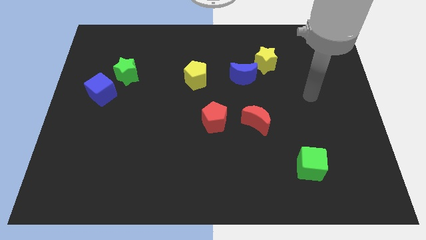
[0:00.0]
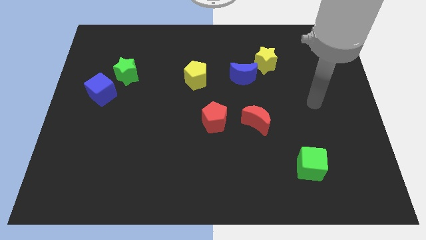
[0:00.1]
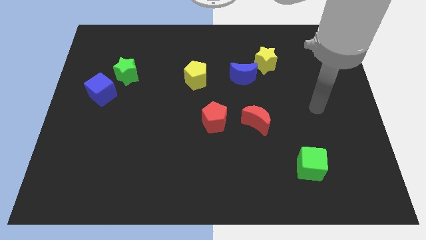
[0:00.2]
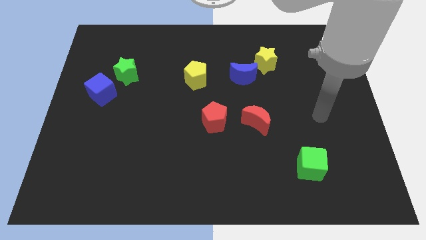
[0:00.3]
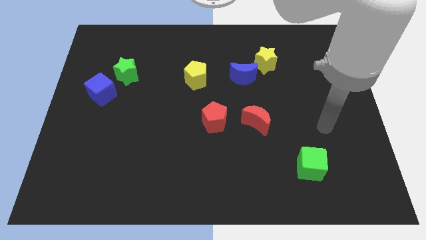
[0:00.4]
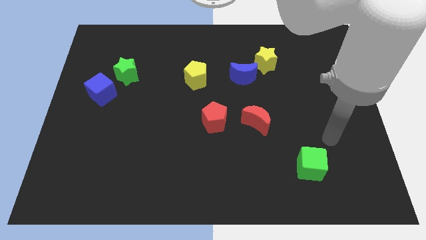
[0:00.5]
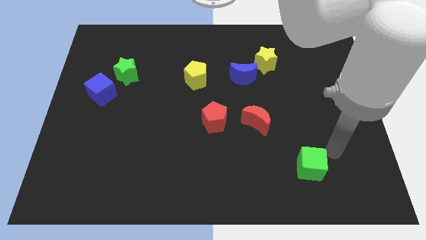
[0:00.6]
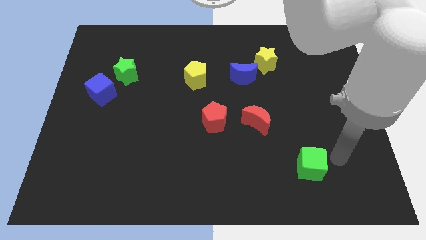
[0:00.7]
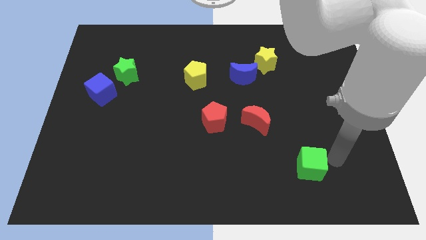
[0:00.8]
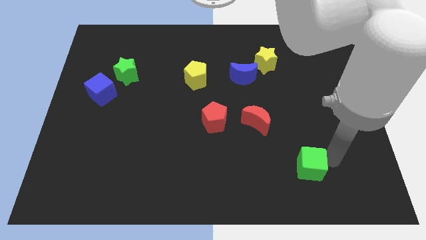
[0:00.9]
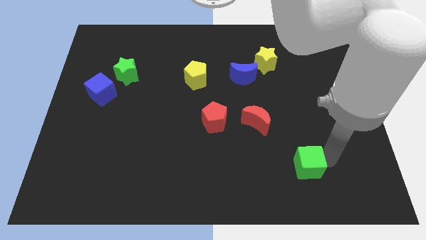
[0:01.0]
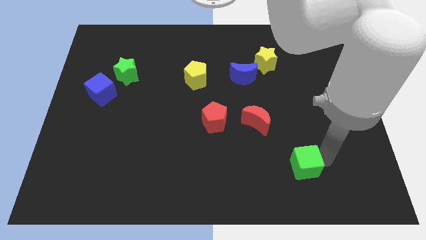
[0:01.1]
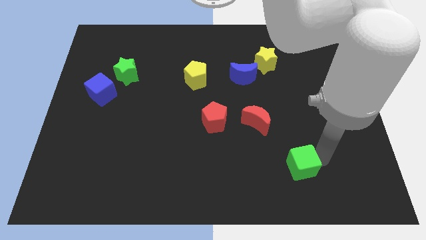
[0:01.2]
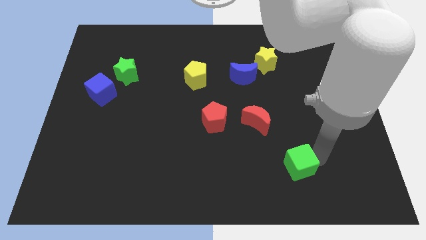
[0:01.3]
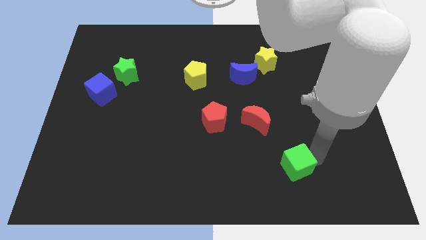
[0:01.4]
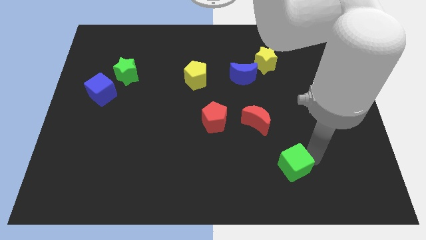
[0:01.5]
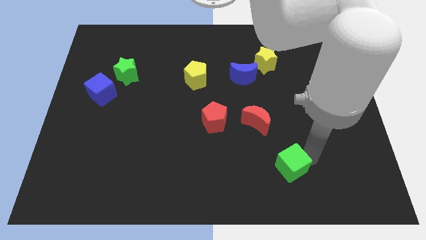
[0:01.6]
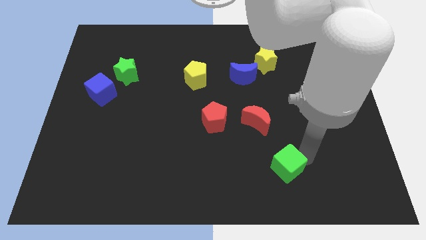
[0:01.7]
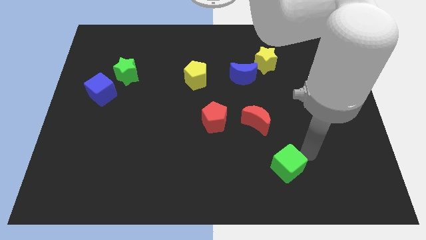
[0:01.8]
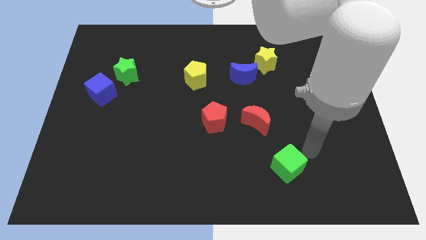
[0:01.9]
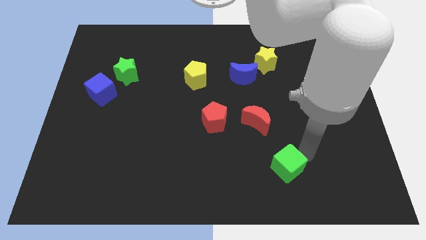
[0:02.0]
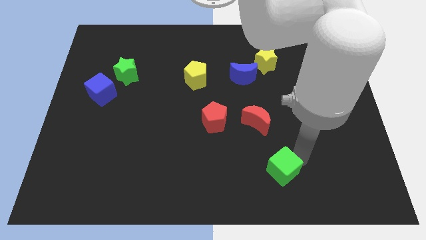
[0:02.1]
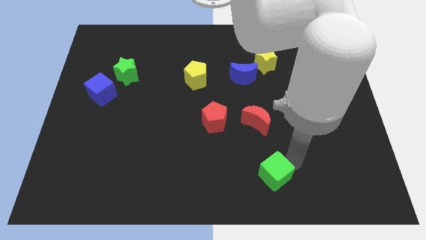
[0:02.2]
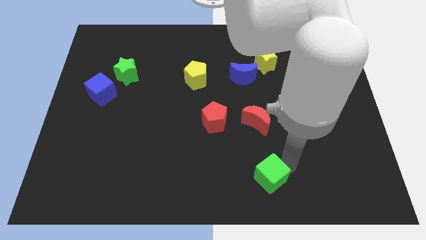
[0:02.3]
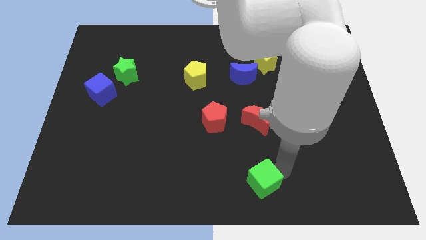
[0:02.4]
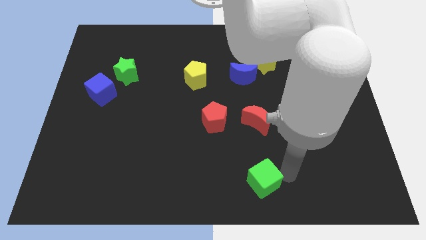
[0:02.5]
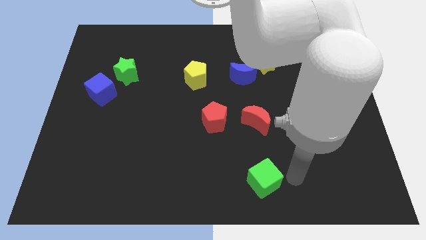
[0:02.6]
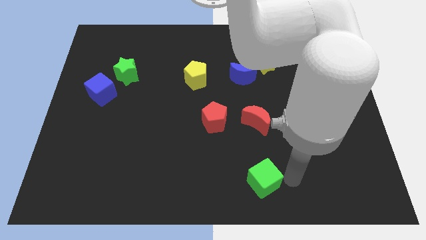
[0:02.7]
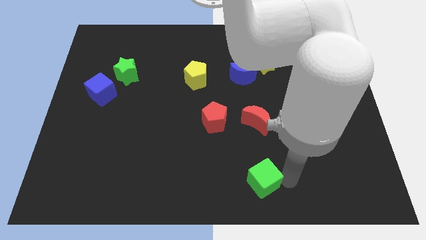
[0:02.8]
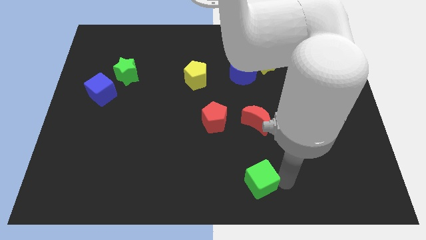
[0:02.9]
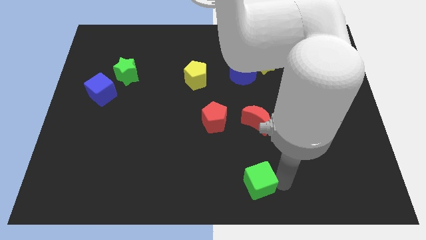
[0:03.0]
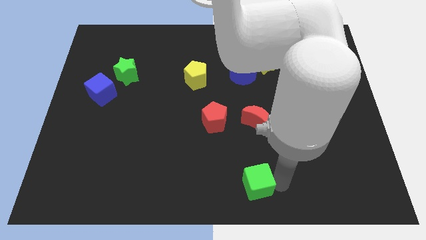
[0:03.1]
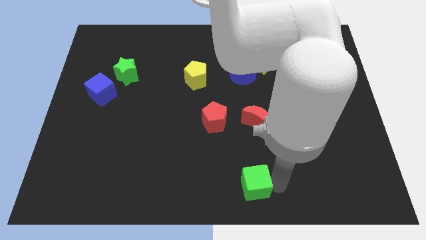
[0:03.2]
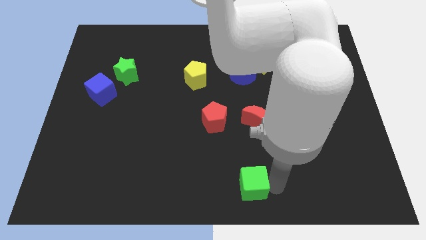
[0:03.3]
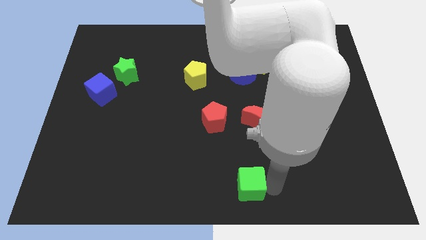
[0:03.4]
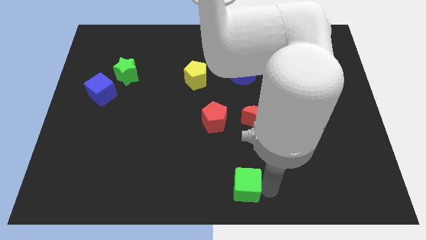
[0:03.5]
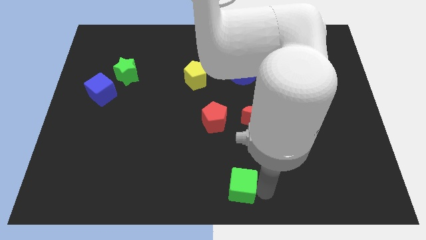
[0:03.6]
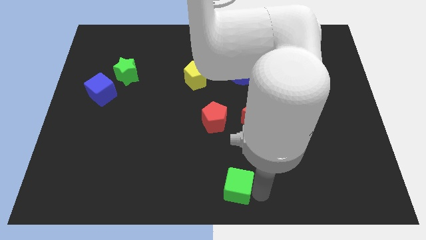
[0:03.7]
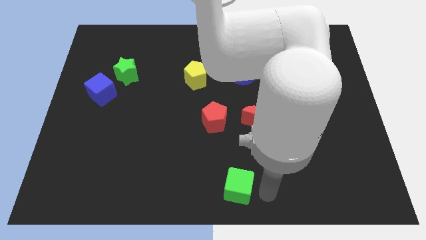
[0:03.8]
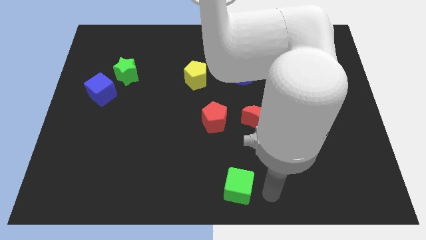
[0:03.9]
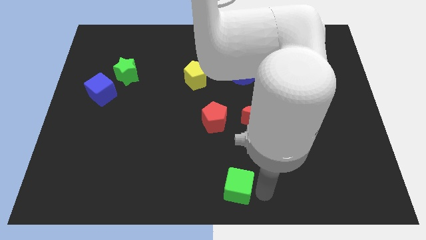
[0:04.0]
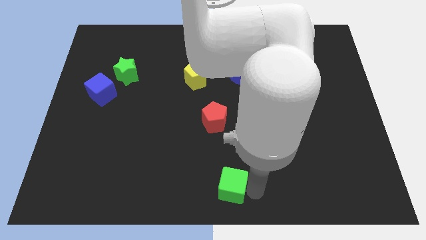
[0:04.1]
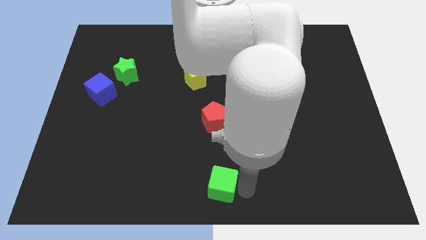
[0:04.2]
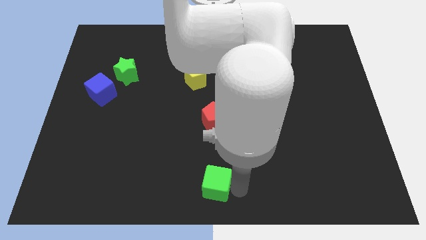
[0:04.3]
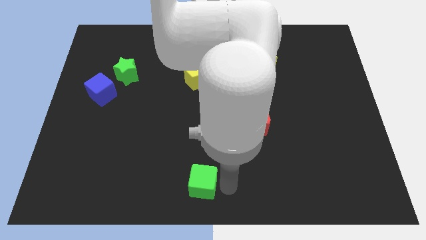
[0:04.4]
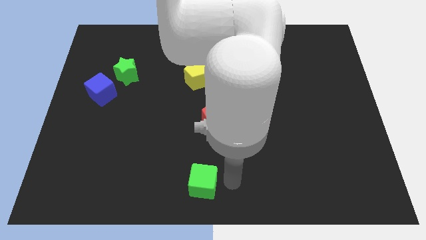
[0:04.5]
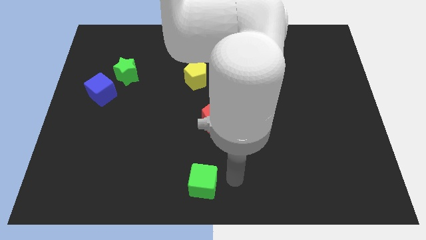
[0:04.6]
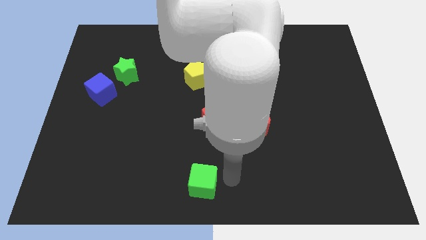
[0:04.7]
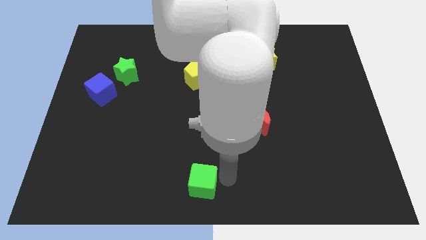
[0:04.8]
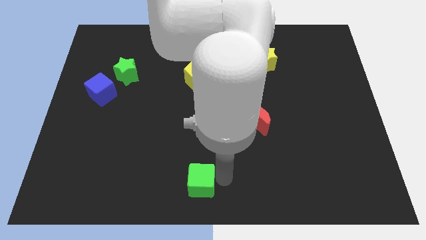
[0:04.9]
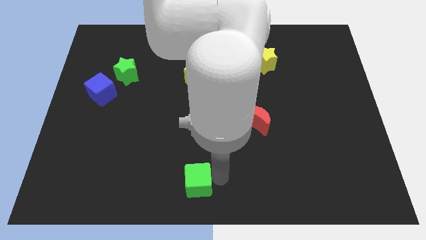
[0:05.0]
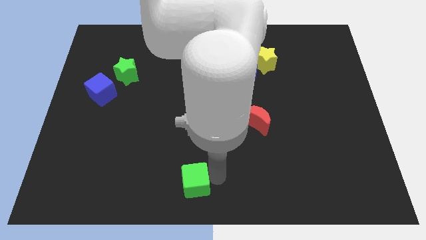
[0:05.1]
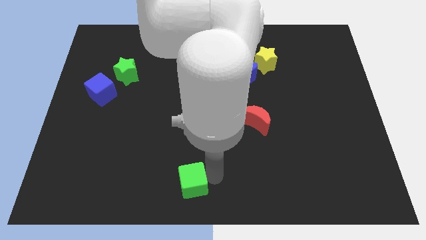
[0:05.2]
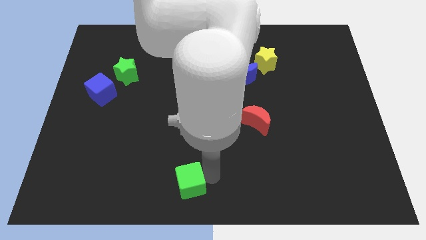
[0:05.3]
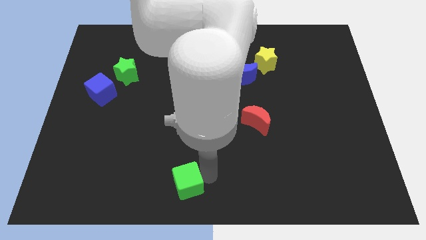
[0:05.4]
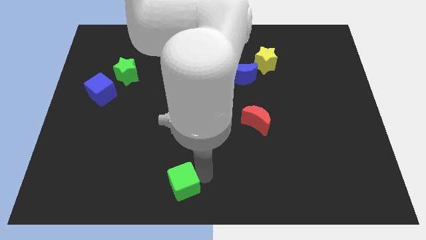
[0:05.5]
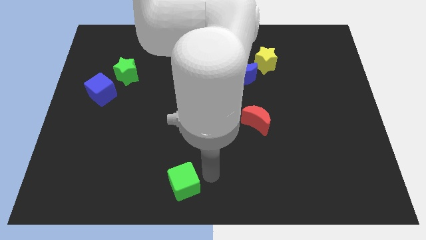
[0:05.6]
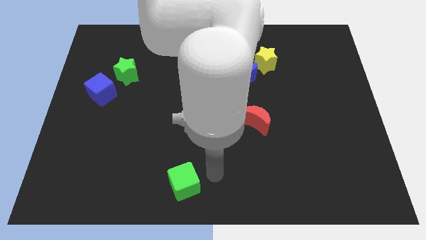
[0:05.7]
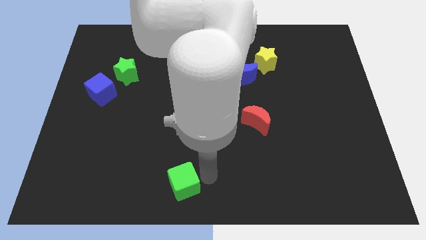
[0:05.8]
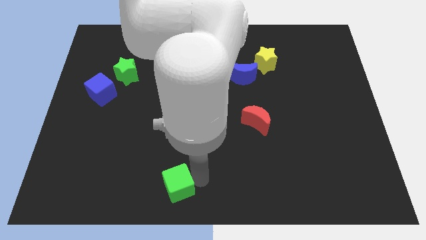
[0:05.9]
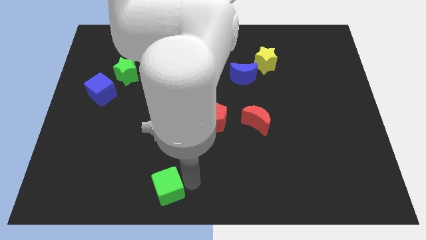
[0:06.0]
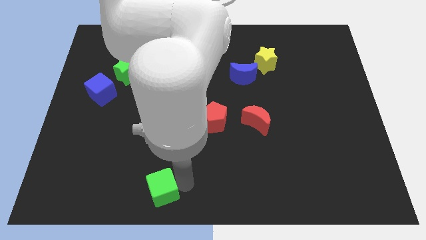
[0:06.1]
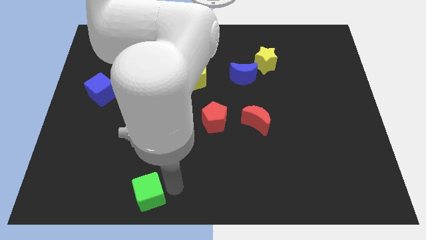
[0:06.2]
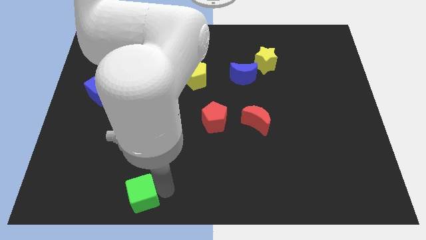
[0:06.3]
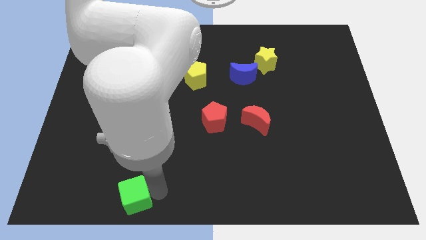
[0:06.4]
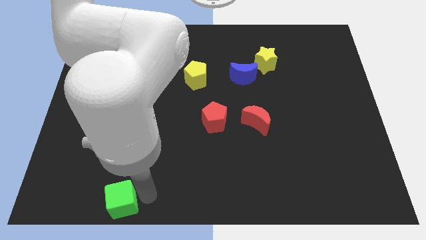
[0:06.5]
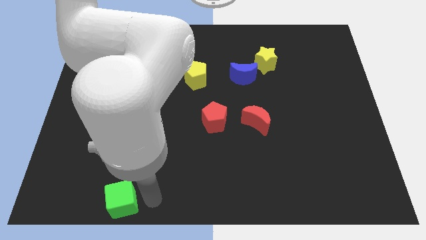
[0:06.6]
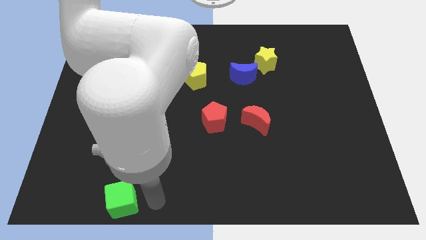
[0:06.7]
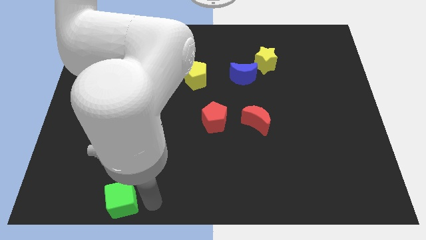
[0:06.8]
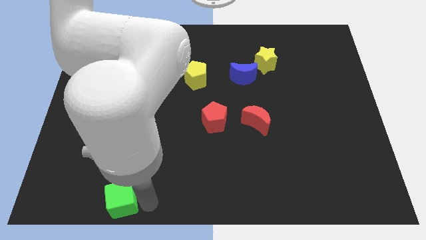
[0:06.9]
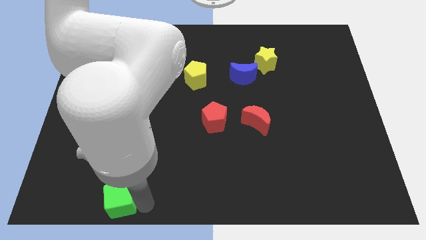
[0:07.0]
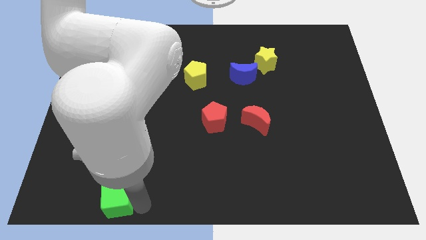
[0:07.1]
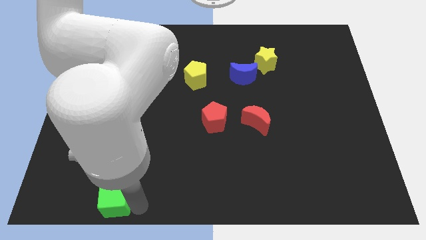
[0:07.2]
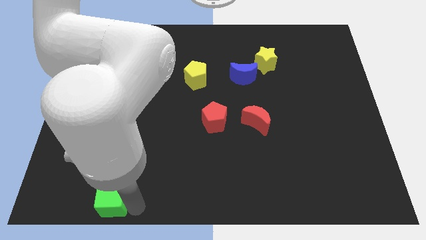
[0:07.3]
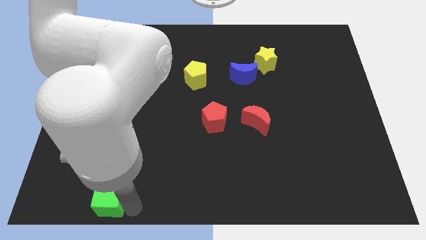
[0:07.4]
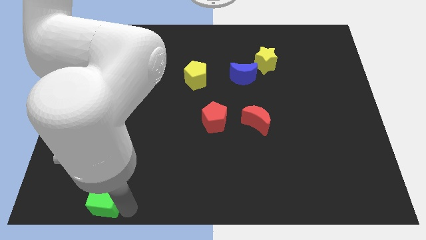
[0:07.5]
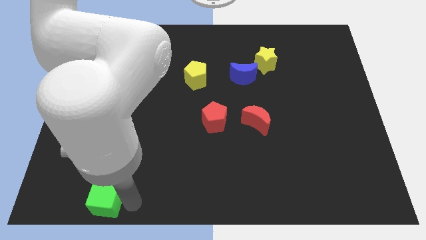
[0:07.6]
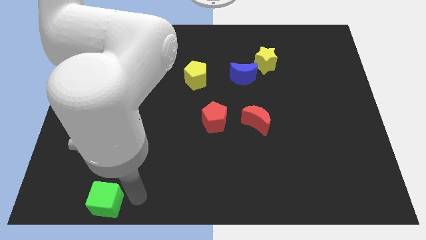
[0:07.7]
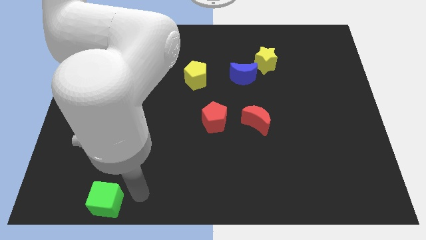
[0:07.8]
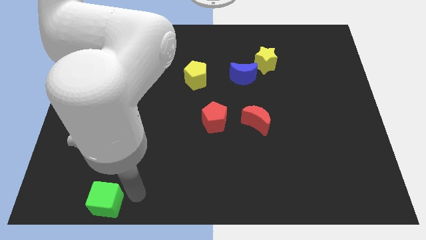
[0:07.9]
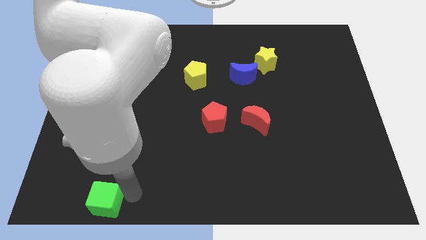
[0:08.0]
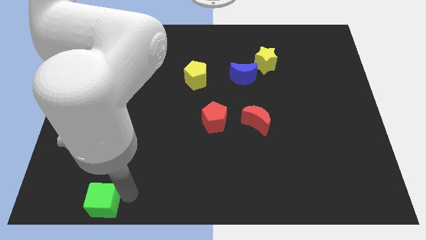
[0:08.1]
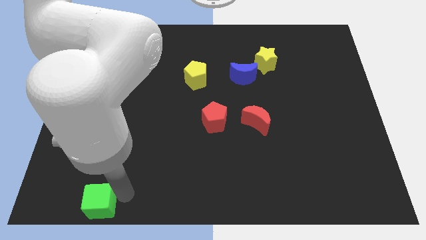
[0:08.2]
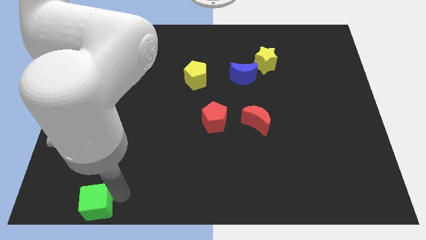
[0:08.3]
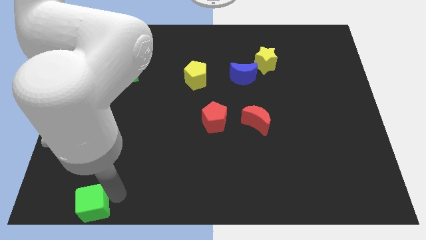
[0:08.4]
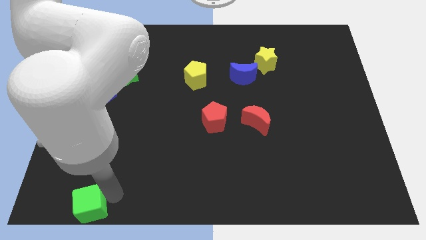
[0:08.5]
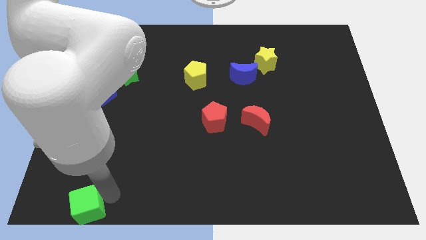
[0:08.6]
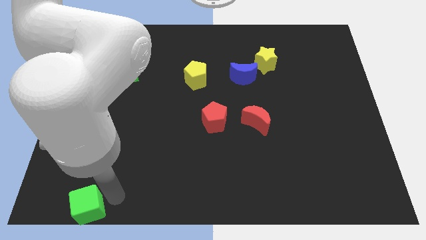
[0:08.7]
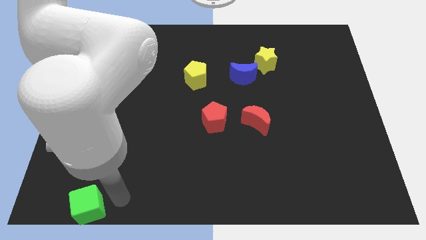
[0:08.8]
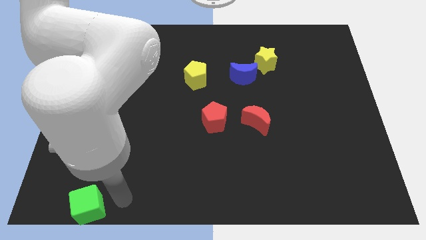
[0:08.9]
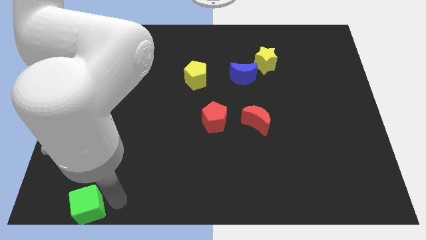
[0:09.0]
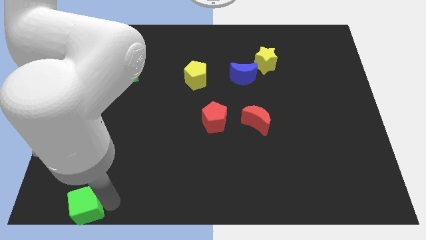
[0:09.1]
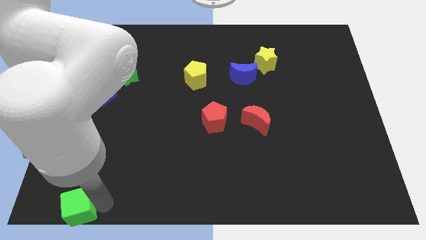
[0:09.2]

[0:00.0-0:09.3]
push the green cube to the bottom left
